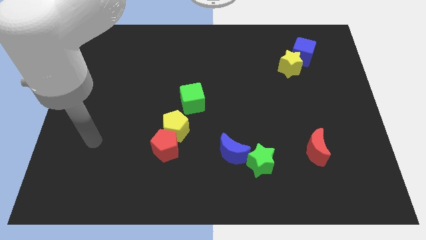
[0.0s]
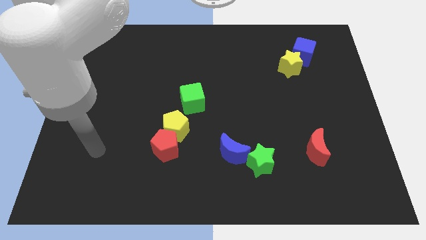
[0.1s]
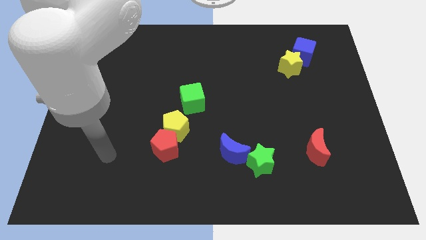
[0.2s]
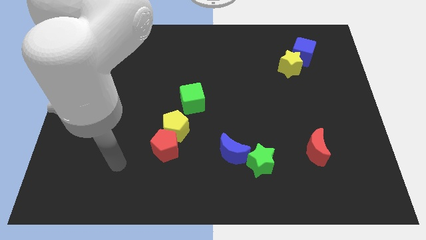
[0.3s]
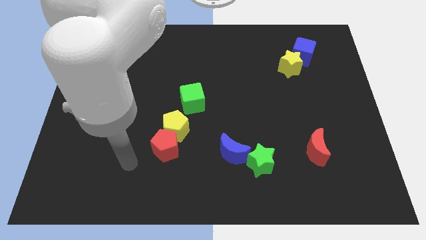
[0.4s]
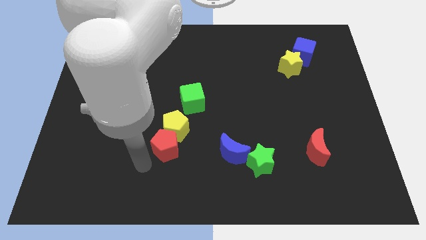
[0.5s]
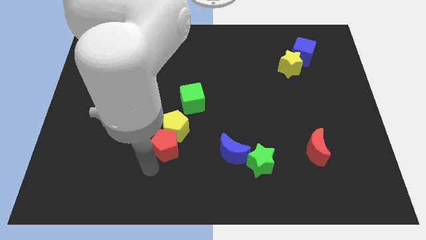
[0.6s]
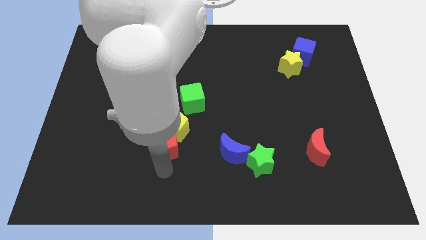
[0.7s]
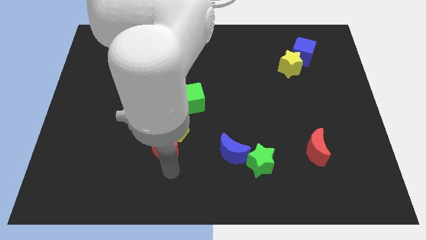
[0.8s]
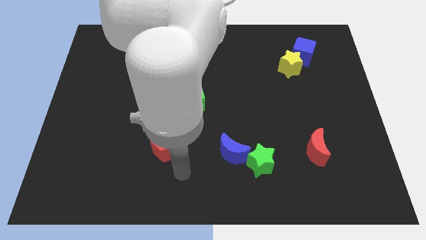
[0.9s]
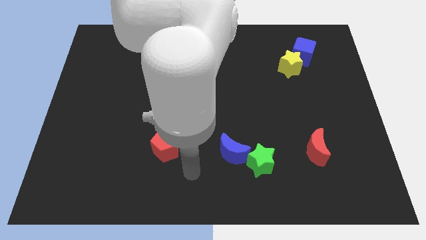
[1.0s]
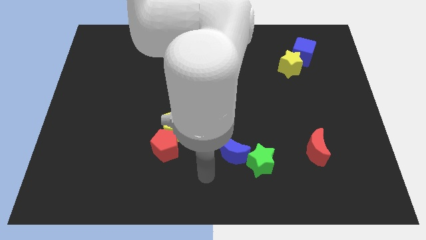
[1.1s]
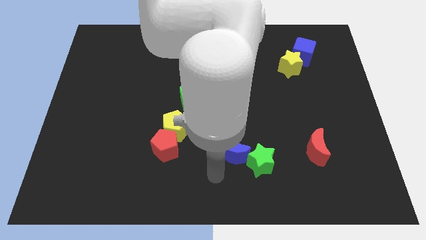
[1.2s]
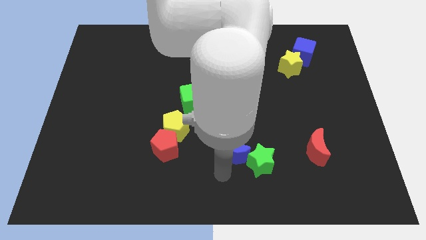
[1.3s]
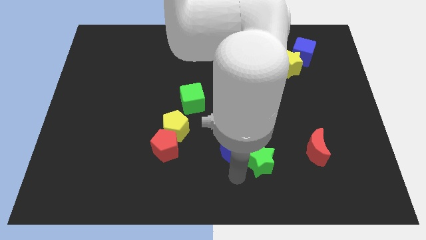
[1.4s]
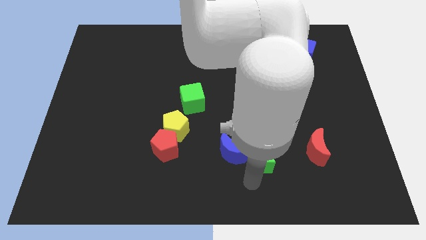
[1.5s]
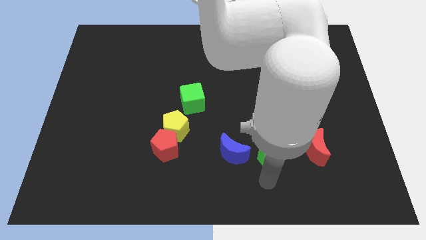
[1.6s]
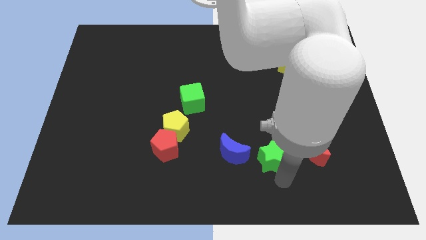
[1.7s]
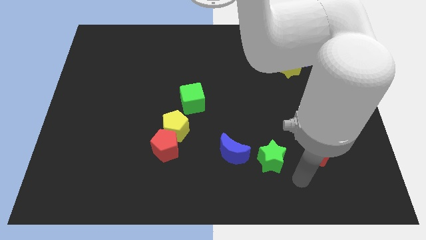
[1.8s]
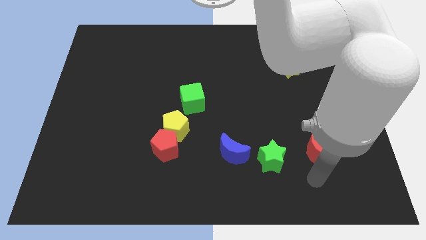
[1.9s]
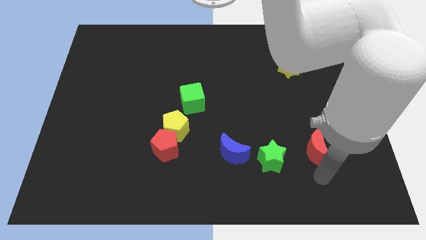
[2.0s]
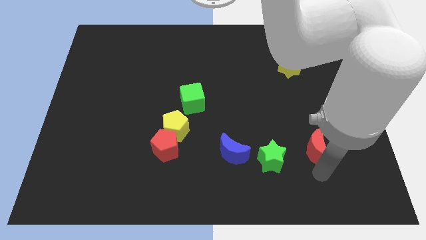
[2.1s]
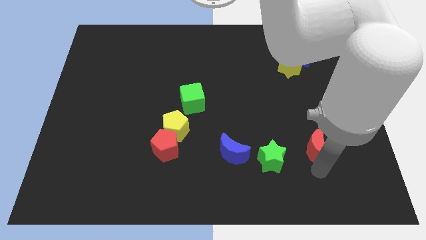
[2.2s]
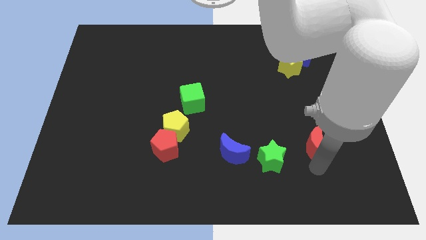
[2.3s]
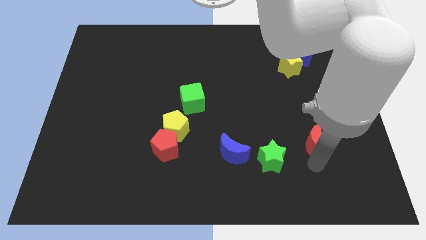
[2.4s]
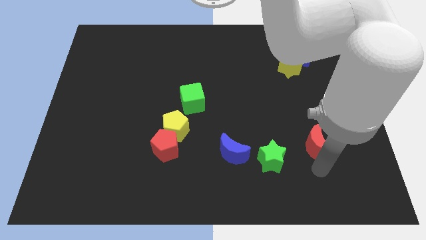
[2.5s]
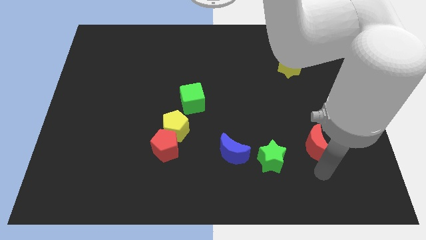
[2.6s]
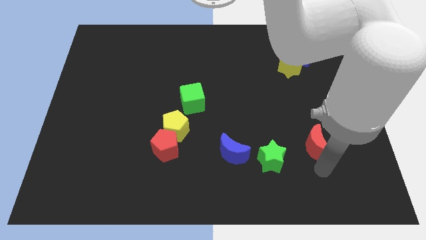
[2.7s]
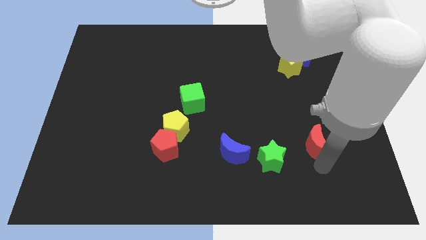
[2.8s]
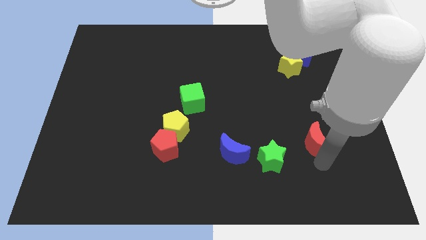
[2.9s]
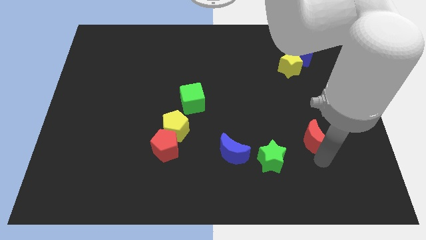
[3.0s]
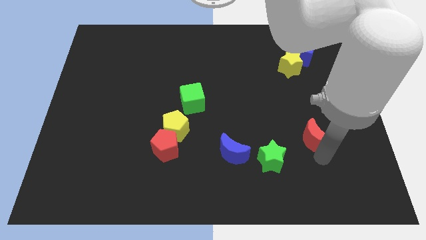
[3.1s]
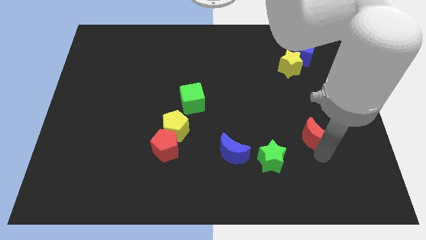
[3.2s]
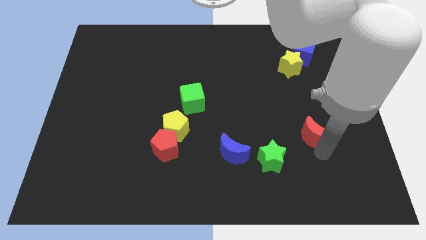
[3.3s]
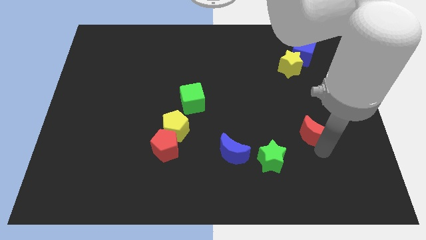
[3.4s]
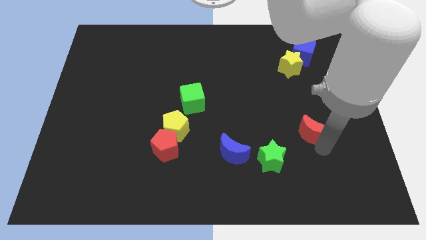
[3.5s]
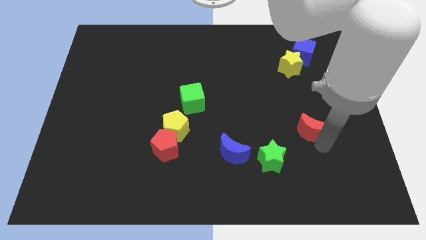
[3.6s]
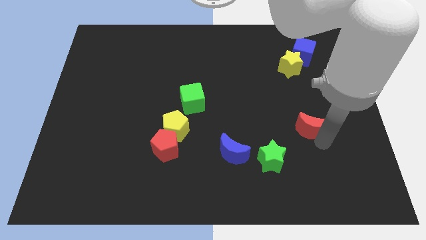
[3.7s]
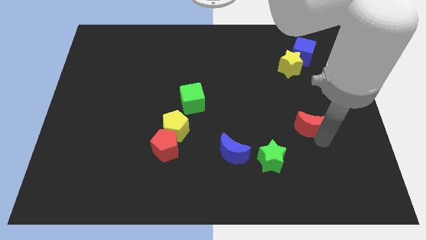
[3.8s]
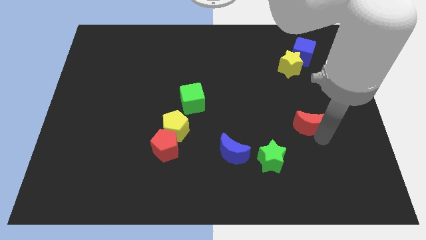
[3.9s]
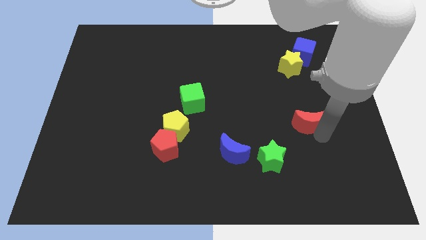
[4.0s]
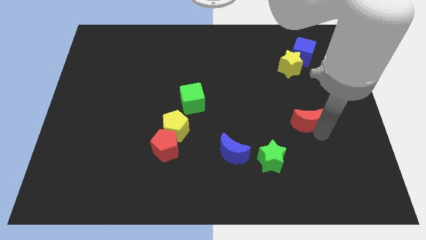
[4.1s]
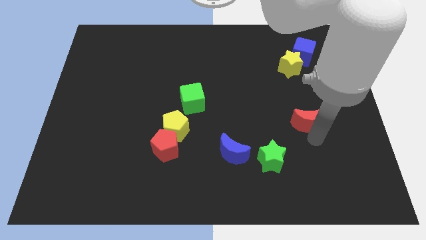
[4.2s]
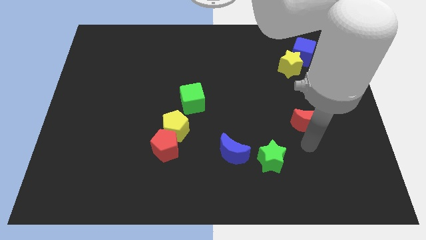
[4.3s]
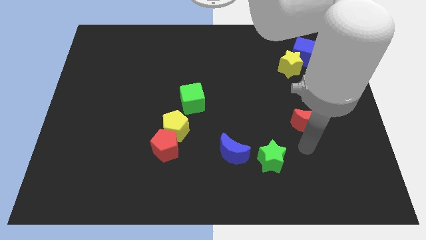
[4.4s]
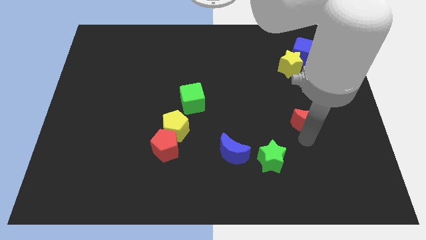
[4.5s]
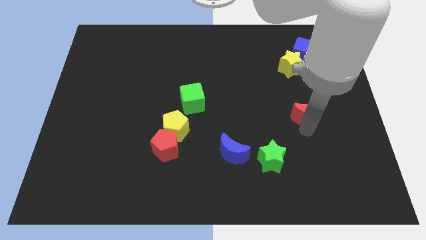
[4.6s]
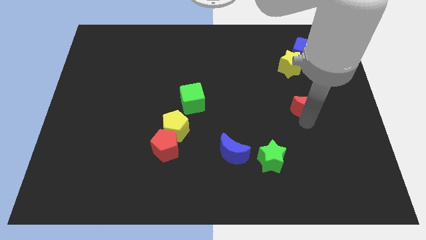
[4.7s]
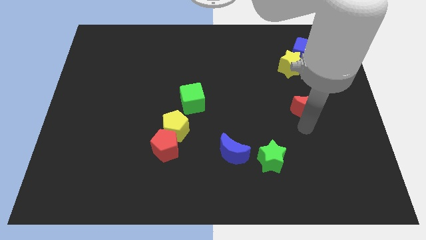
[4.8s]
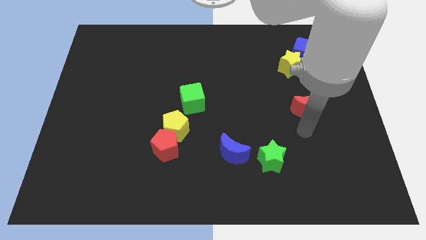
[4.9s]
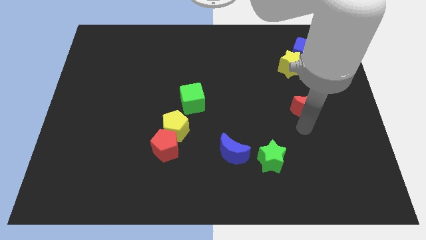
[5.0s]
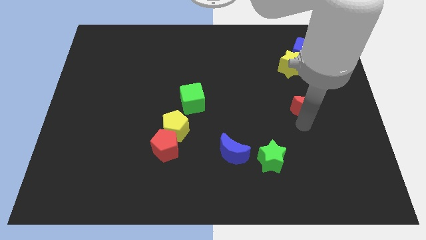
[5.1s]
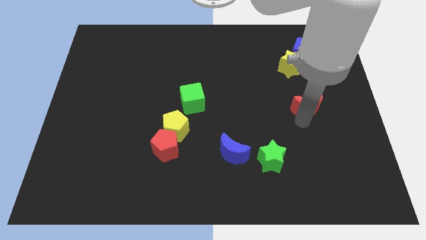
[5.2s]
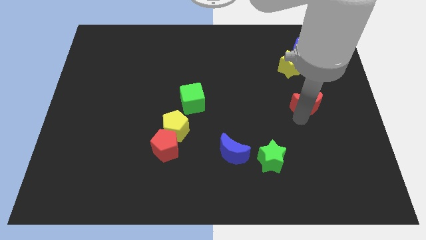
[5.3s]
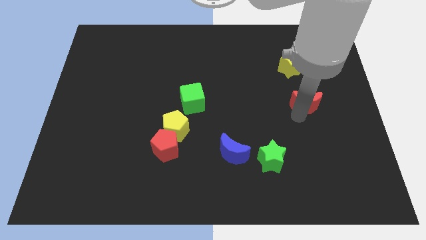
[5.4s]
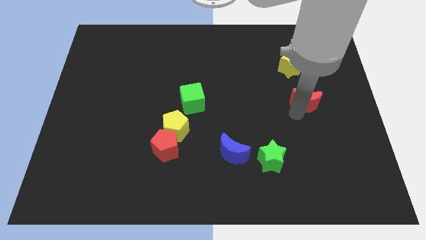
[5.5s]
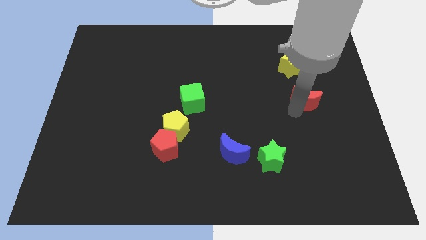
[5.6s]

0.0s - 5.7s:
slide the red moon to the bottom side of the blue cube

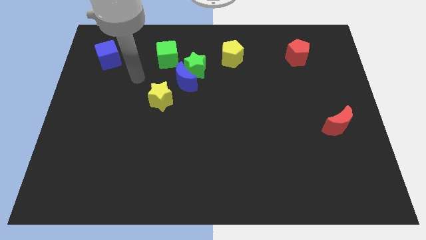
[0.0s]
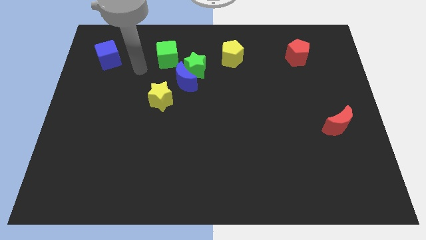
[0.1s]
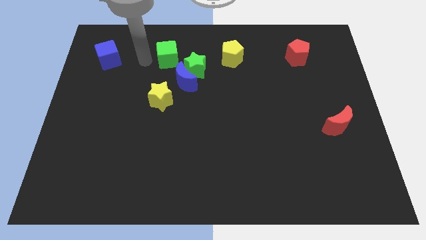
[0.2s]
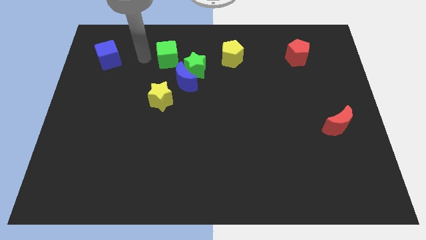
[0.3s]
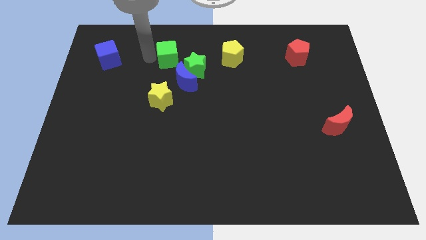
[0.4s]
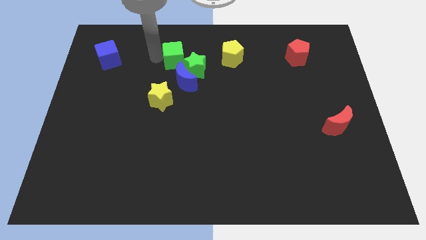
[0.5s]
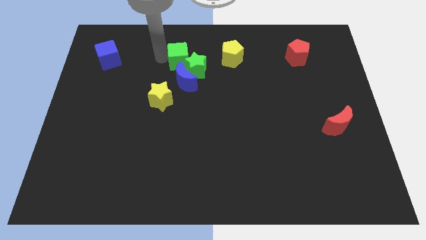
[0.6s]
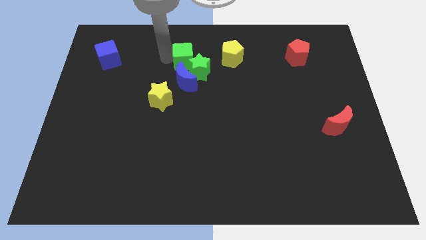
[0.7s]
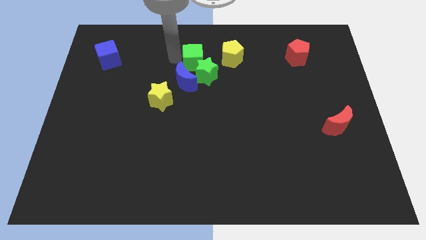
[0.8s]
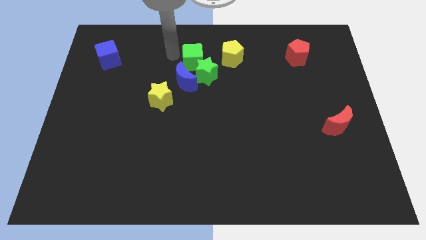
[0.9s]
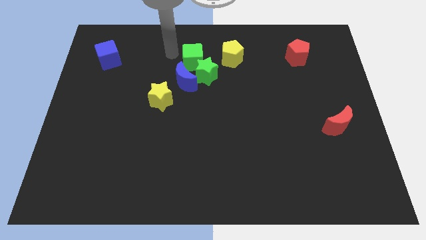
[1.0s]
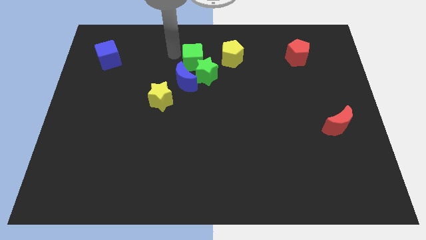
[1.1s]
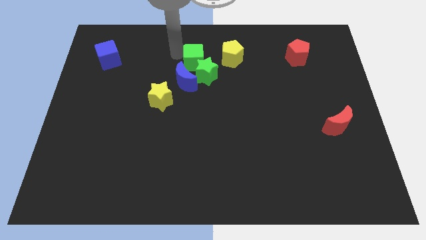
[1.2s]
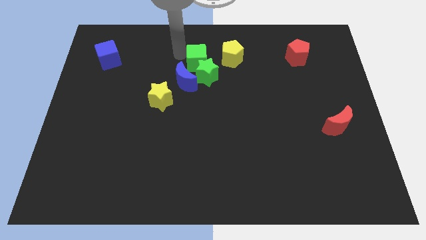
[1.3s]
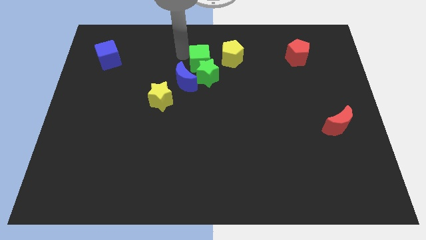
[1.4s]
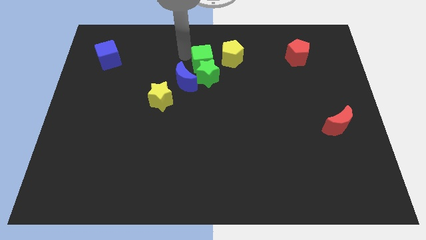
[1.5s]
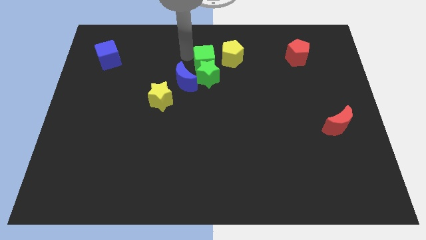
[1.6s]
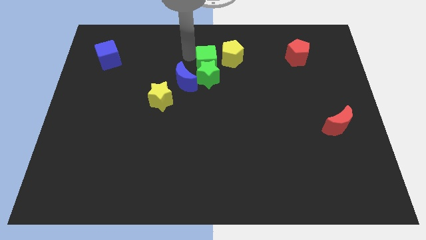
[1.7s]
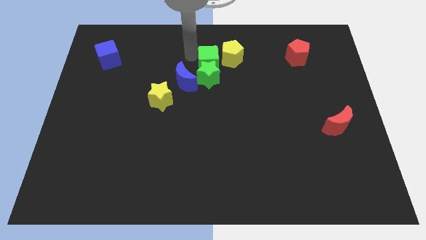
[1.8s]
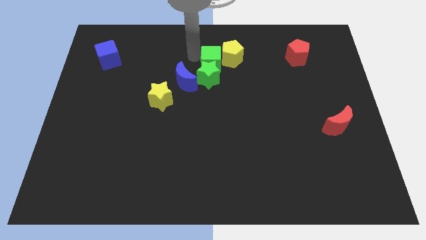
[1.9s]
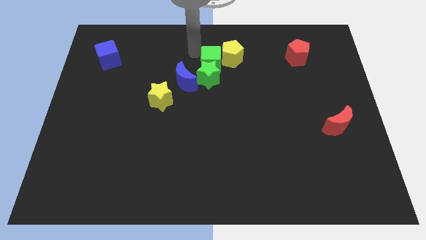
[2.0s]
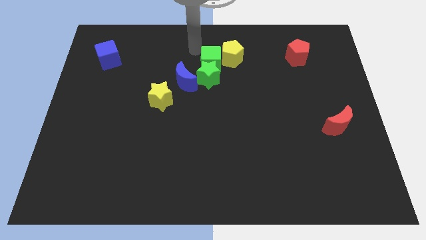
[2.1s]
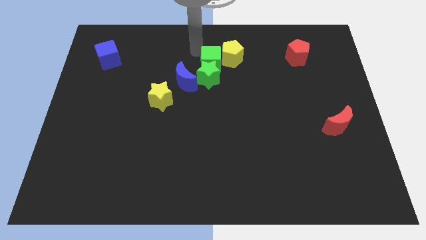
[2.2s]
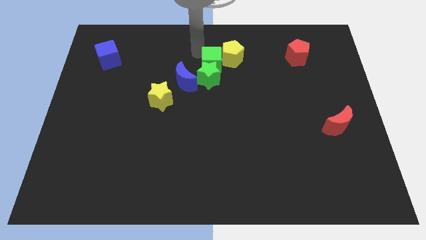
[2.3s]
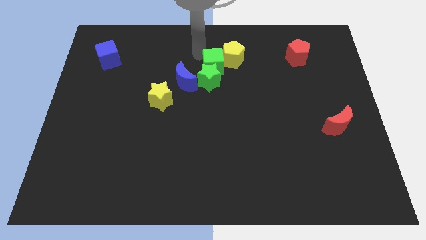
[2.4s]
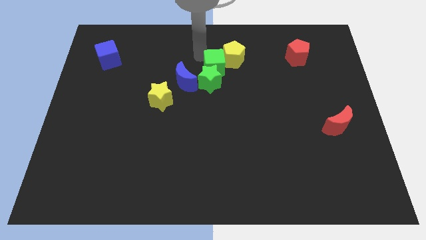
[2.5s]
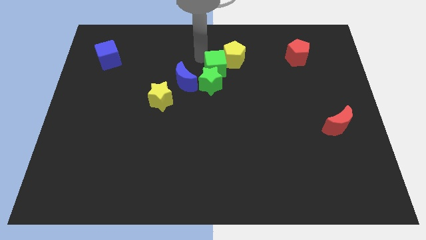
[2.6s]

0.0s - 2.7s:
push the green cube to the bottom side of the yellow pentagon
